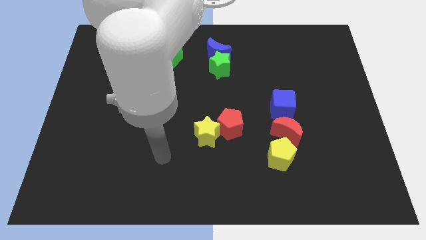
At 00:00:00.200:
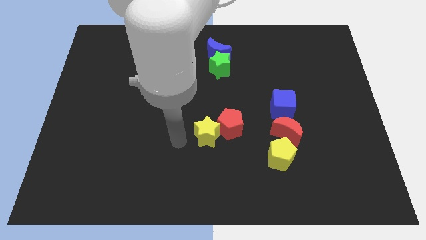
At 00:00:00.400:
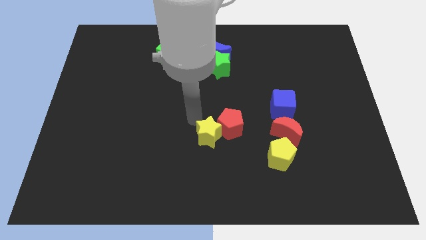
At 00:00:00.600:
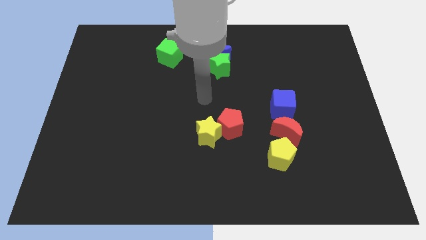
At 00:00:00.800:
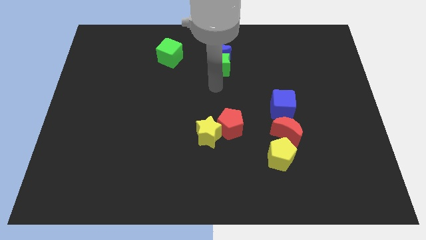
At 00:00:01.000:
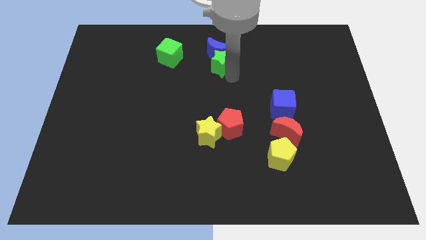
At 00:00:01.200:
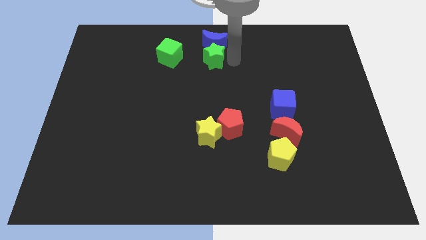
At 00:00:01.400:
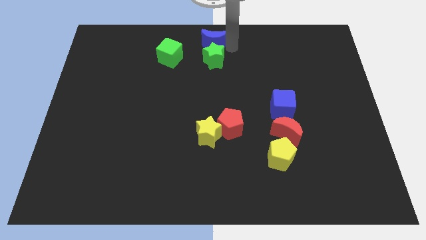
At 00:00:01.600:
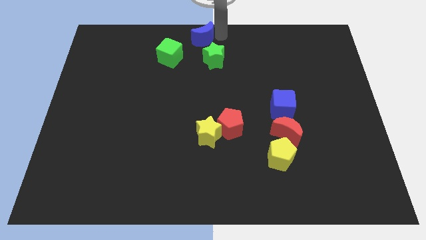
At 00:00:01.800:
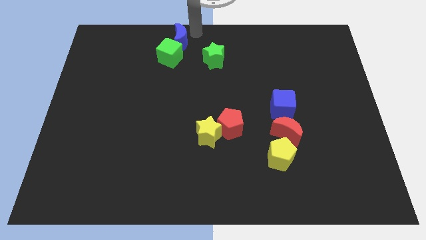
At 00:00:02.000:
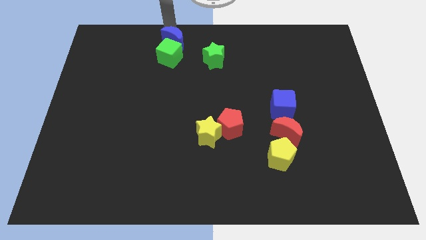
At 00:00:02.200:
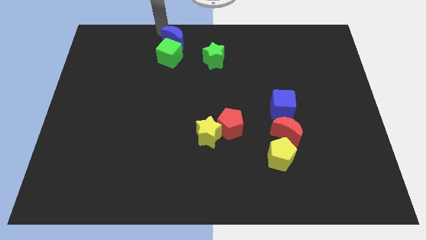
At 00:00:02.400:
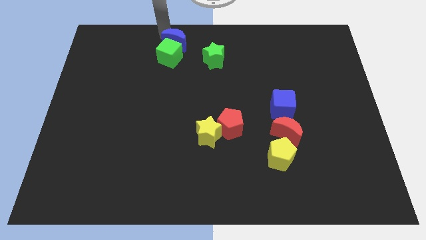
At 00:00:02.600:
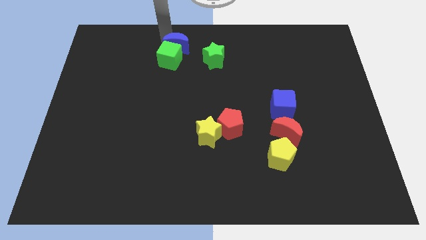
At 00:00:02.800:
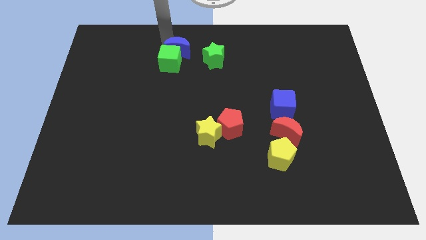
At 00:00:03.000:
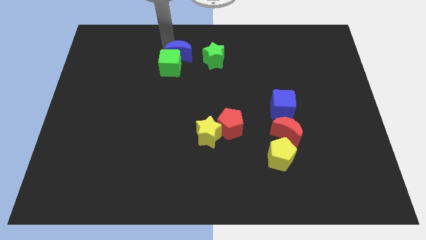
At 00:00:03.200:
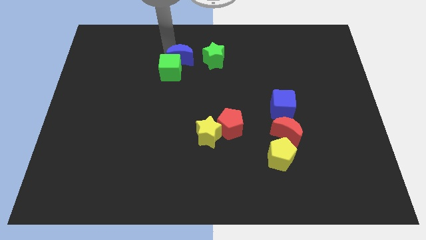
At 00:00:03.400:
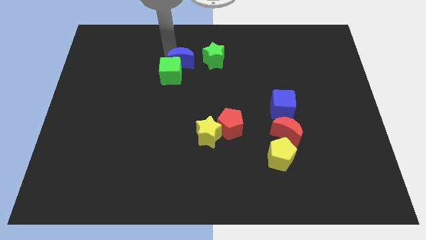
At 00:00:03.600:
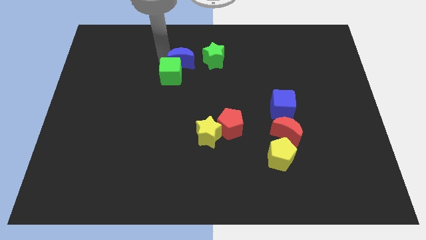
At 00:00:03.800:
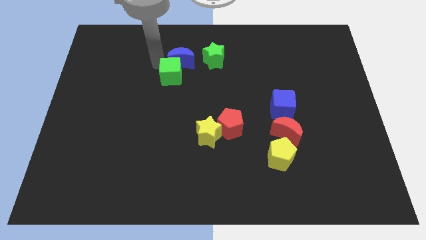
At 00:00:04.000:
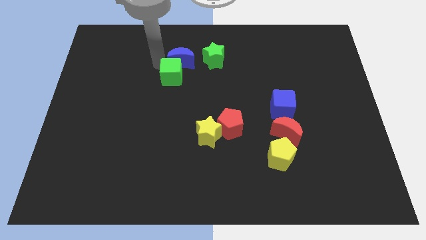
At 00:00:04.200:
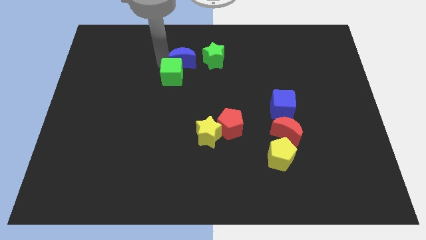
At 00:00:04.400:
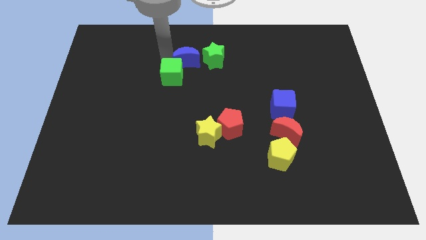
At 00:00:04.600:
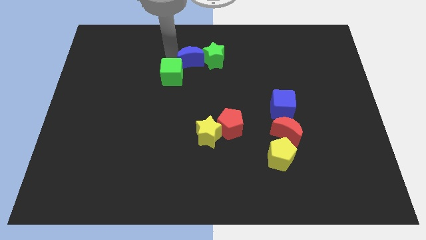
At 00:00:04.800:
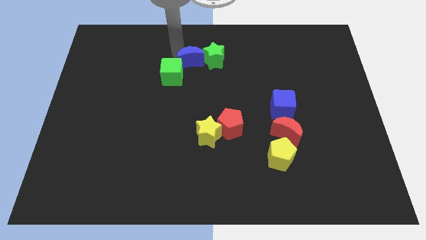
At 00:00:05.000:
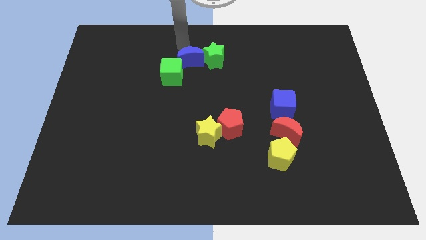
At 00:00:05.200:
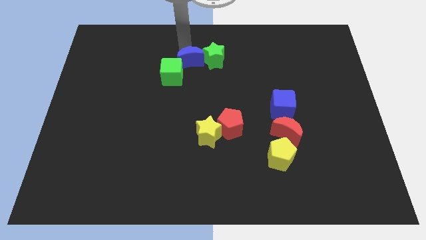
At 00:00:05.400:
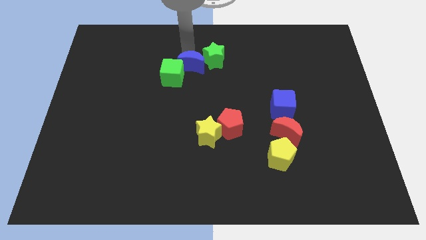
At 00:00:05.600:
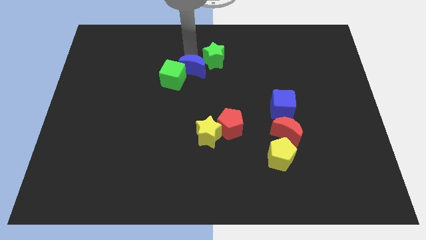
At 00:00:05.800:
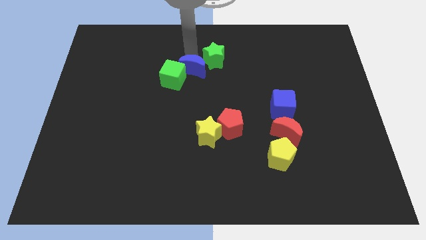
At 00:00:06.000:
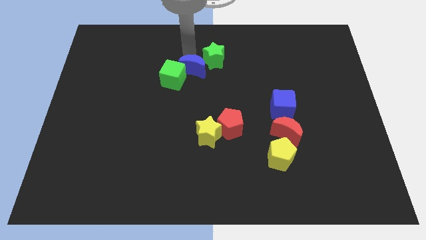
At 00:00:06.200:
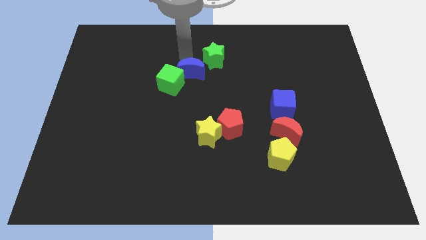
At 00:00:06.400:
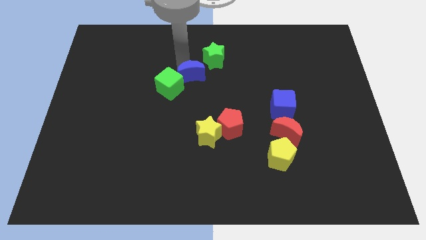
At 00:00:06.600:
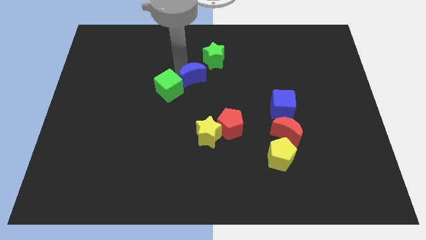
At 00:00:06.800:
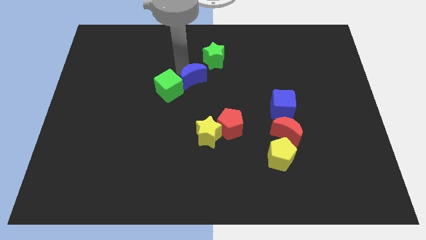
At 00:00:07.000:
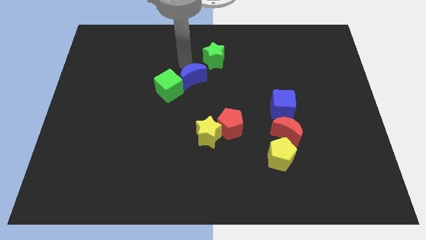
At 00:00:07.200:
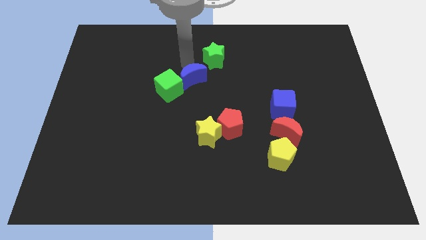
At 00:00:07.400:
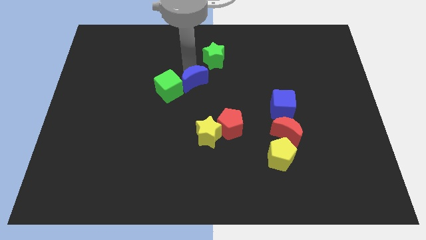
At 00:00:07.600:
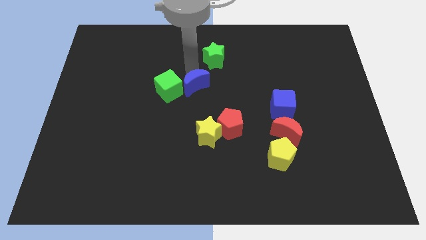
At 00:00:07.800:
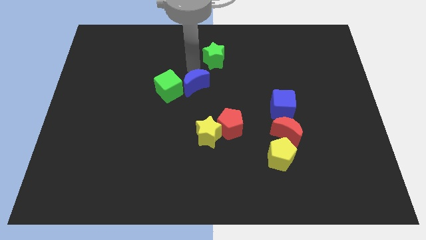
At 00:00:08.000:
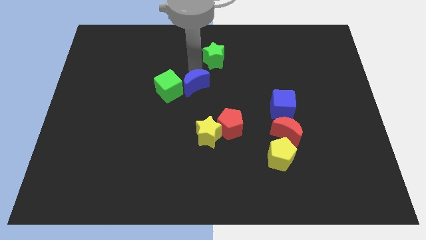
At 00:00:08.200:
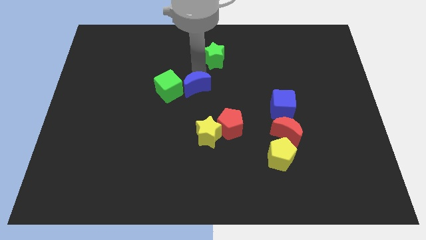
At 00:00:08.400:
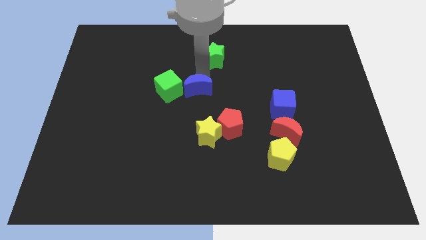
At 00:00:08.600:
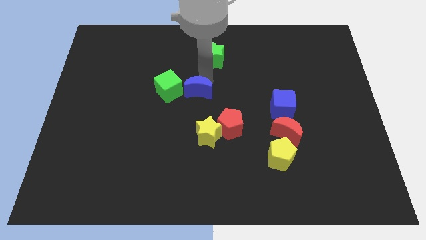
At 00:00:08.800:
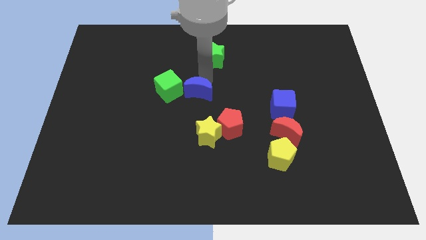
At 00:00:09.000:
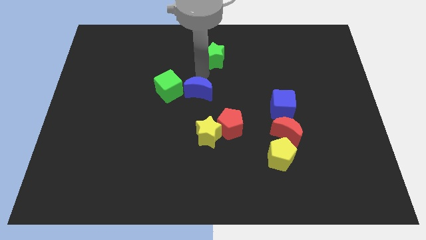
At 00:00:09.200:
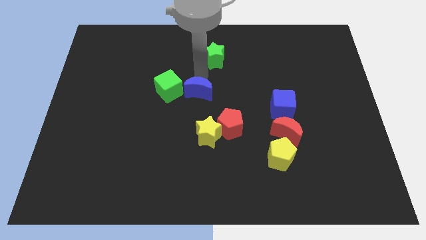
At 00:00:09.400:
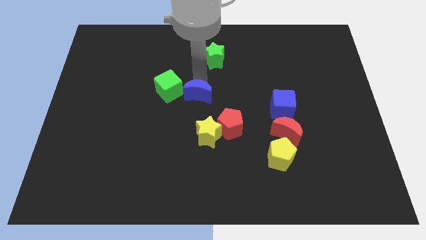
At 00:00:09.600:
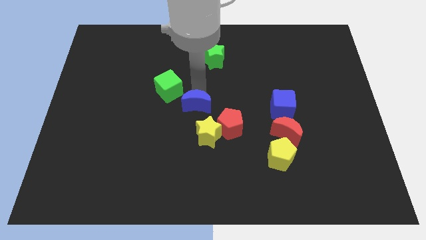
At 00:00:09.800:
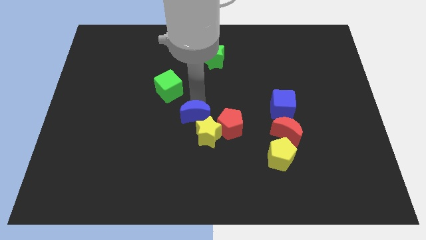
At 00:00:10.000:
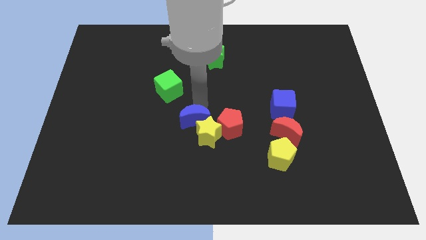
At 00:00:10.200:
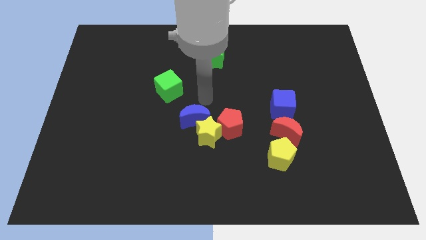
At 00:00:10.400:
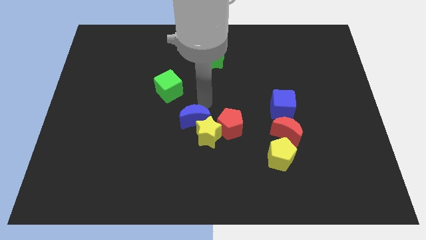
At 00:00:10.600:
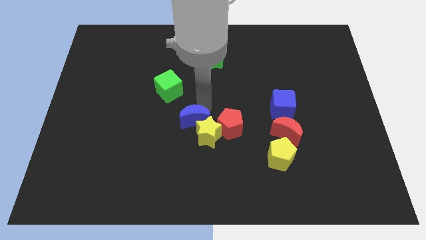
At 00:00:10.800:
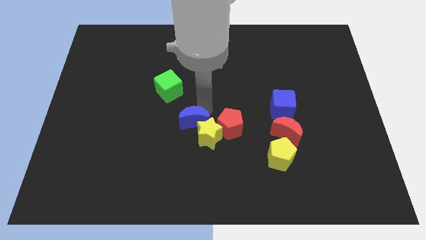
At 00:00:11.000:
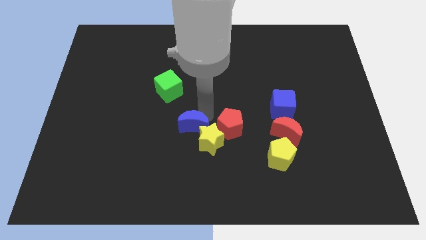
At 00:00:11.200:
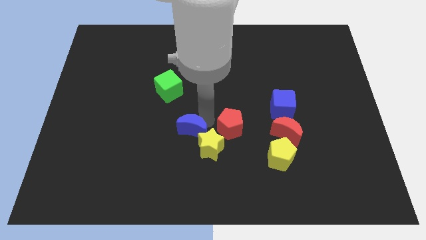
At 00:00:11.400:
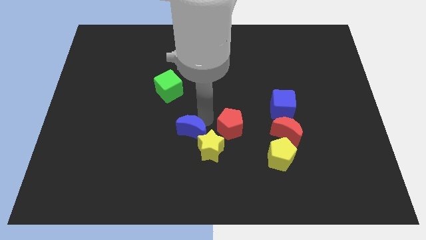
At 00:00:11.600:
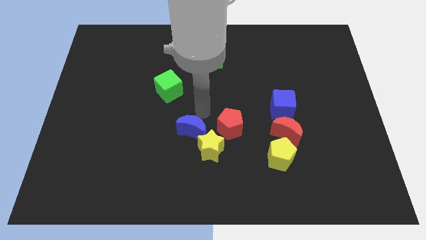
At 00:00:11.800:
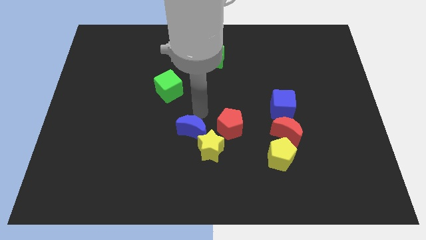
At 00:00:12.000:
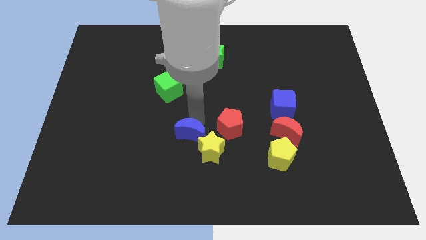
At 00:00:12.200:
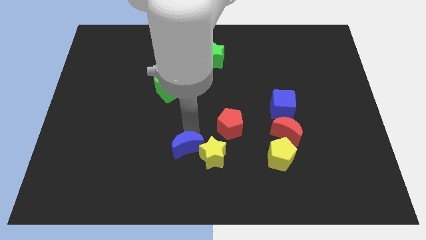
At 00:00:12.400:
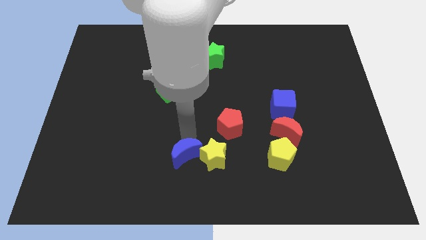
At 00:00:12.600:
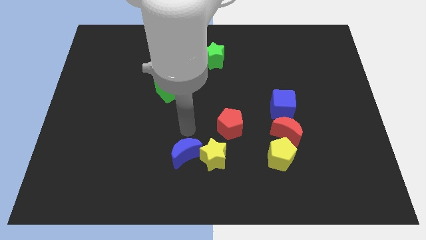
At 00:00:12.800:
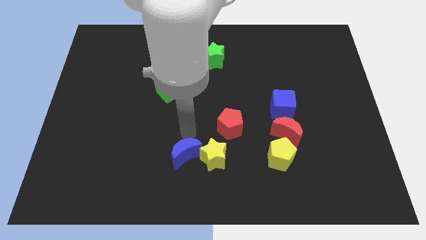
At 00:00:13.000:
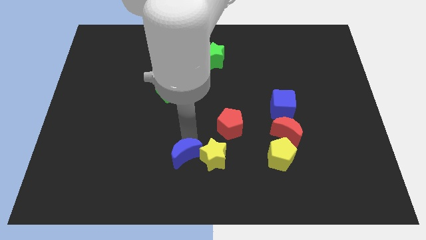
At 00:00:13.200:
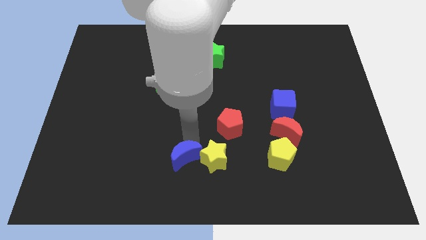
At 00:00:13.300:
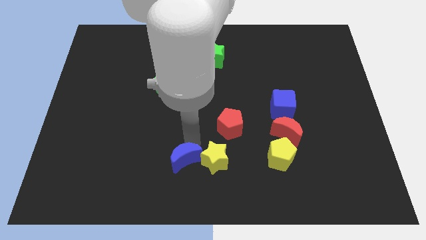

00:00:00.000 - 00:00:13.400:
put the blue moon to the bottom side
